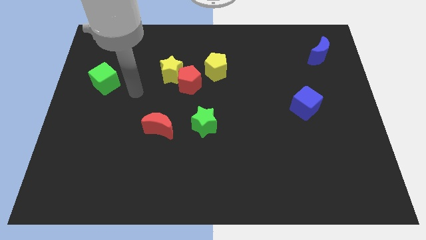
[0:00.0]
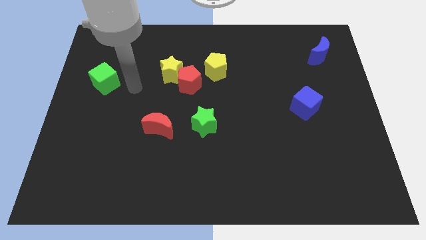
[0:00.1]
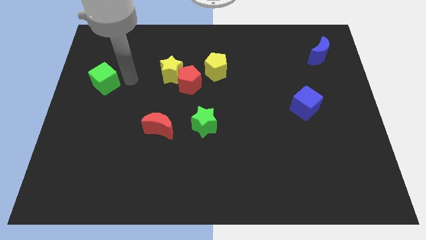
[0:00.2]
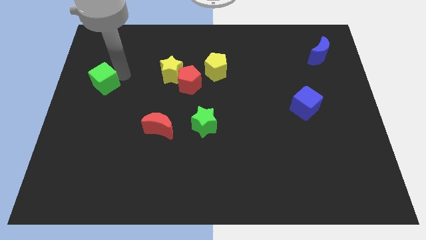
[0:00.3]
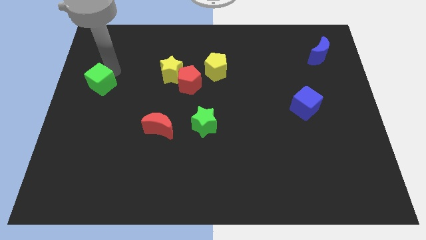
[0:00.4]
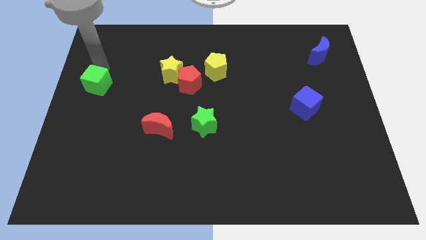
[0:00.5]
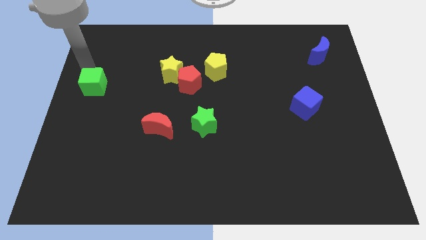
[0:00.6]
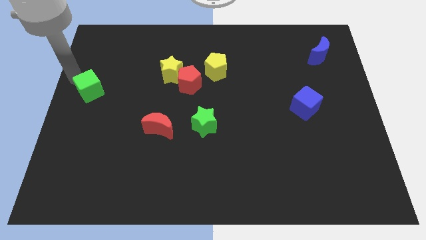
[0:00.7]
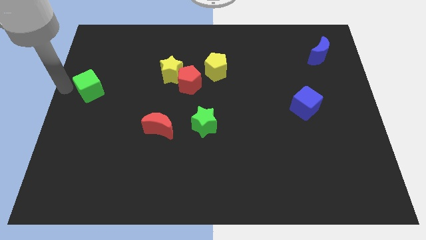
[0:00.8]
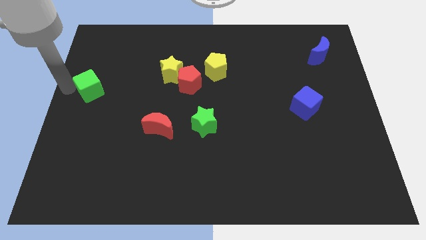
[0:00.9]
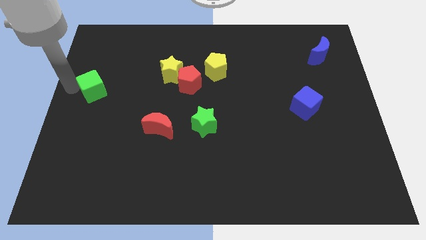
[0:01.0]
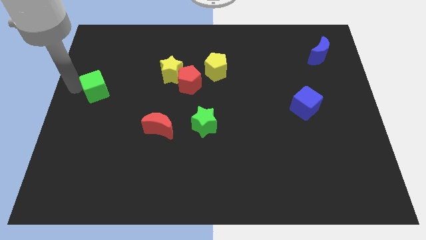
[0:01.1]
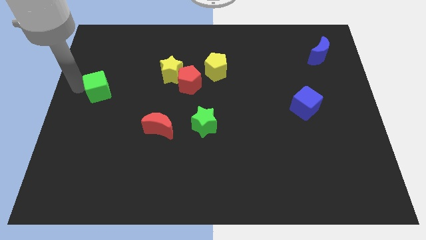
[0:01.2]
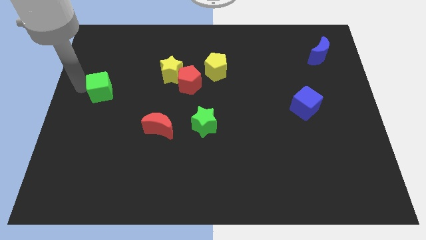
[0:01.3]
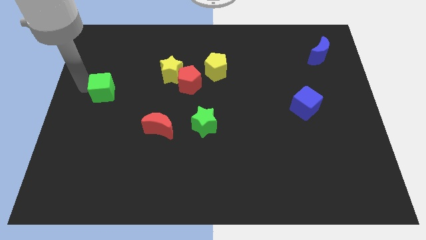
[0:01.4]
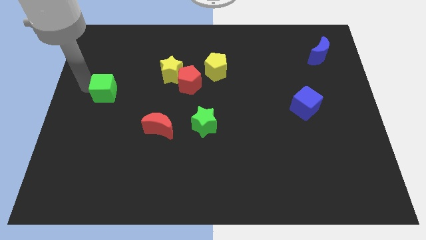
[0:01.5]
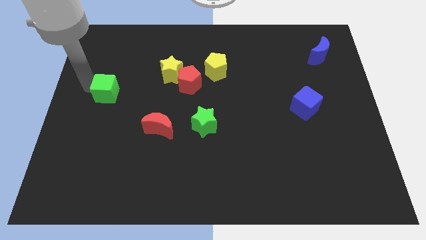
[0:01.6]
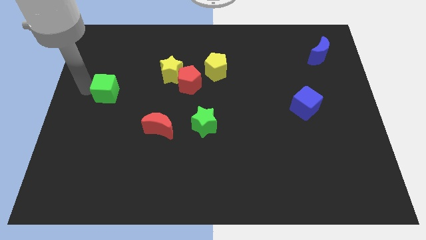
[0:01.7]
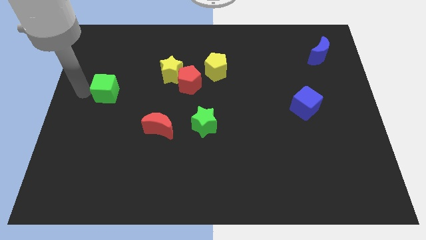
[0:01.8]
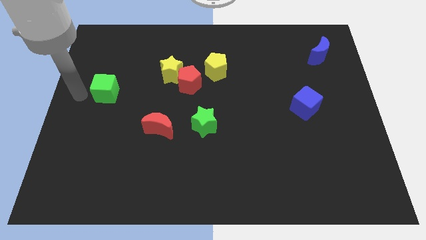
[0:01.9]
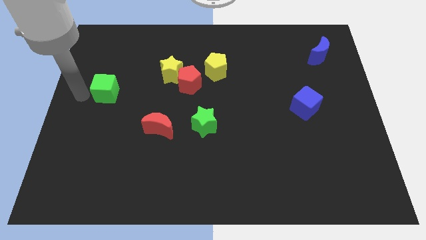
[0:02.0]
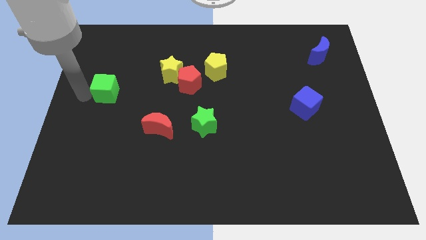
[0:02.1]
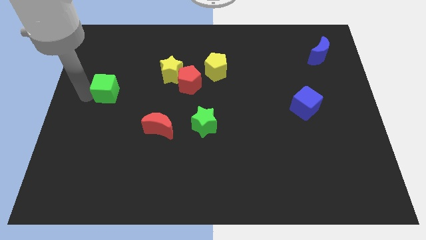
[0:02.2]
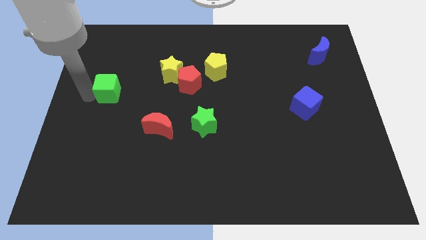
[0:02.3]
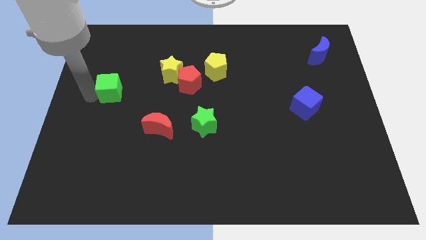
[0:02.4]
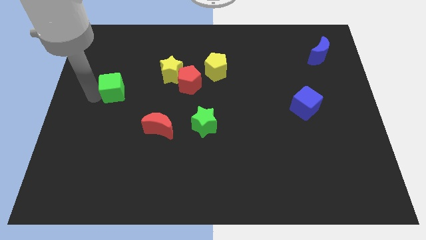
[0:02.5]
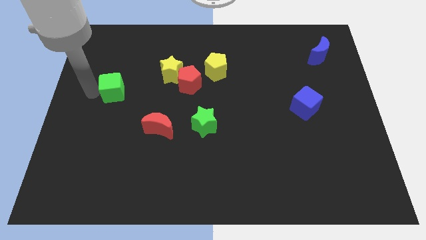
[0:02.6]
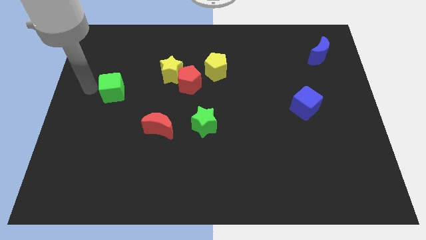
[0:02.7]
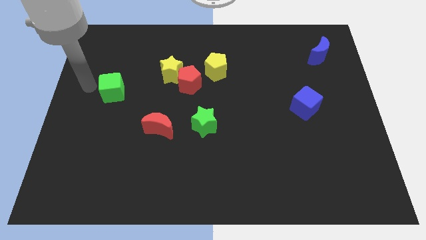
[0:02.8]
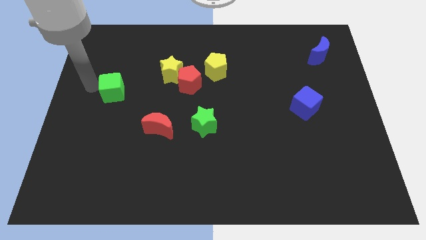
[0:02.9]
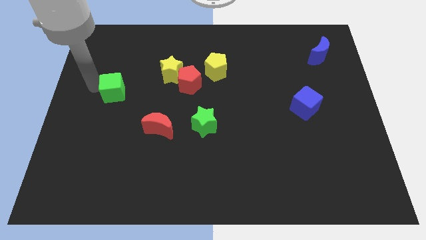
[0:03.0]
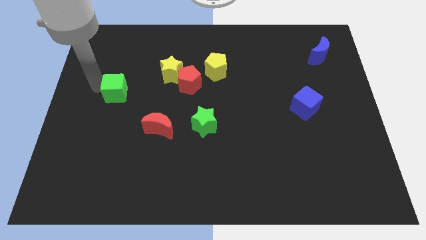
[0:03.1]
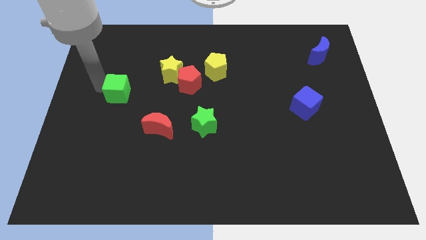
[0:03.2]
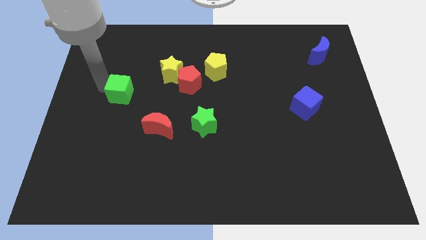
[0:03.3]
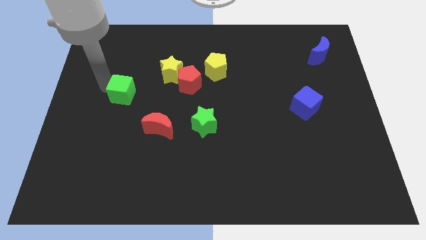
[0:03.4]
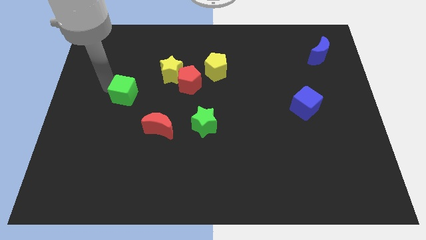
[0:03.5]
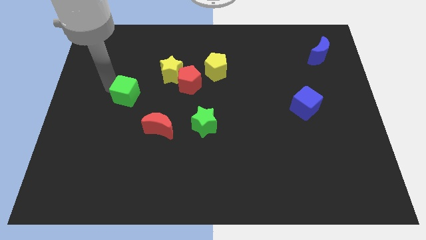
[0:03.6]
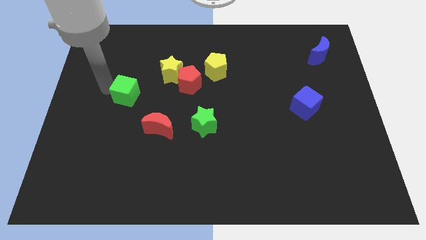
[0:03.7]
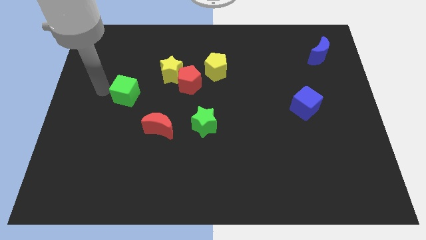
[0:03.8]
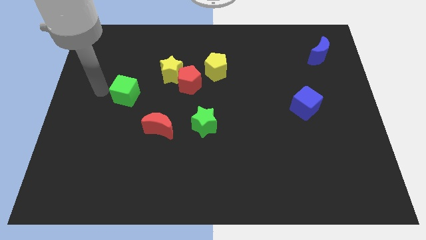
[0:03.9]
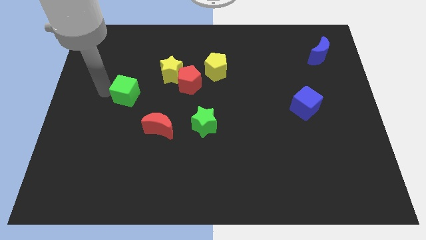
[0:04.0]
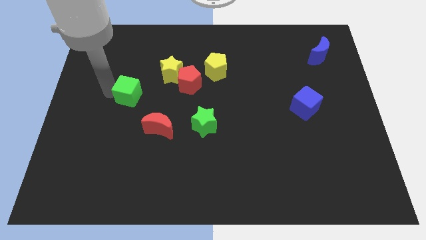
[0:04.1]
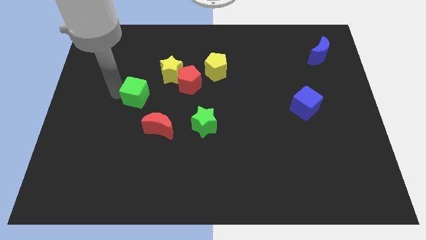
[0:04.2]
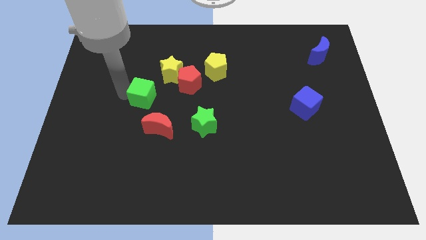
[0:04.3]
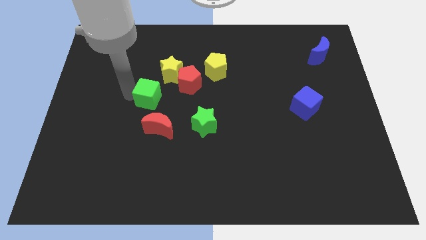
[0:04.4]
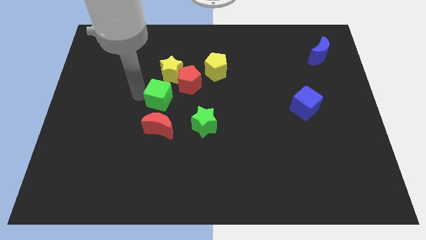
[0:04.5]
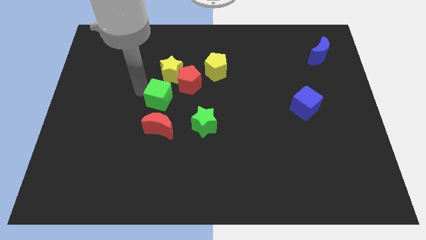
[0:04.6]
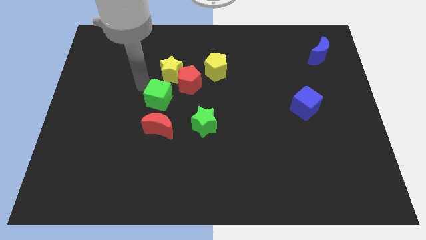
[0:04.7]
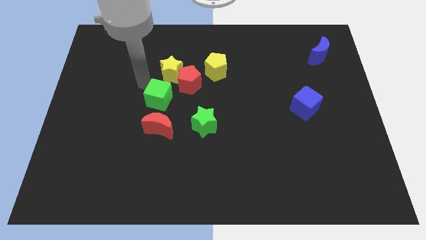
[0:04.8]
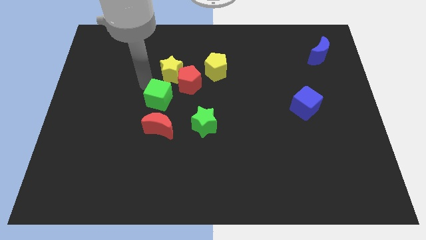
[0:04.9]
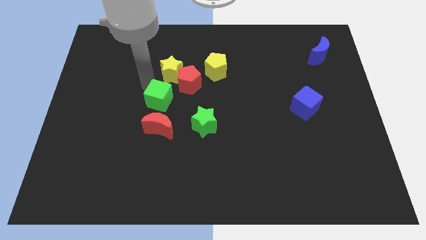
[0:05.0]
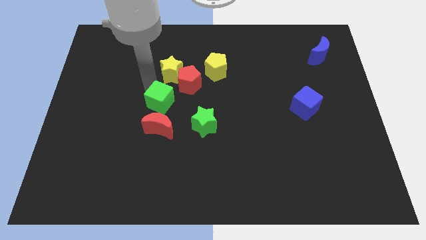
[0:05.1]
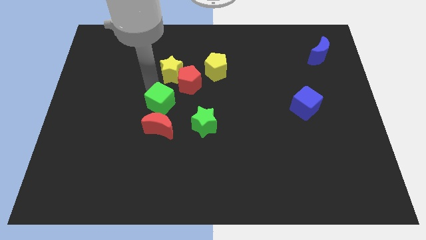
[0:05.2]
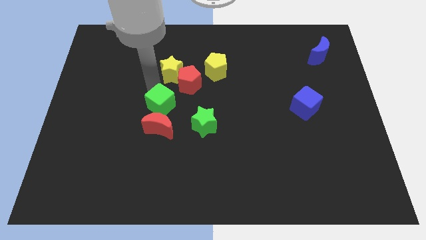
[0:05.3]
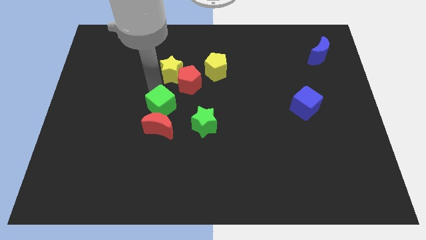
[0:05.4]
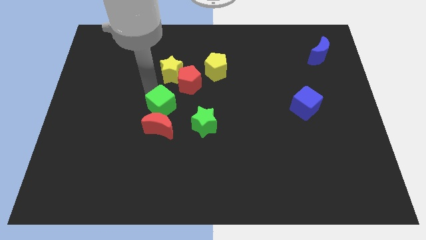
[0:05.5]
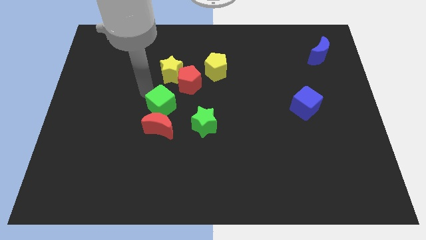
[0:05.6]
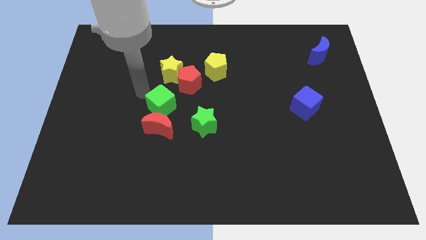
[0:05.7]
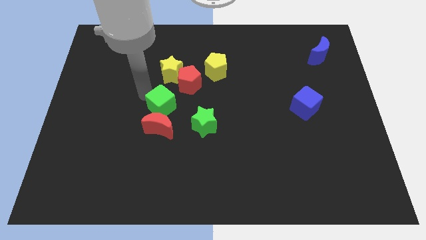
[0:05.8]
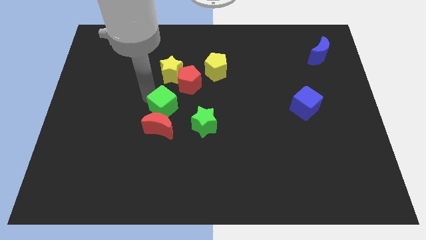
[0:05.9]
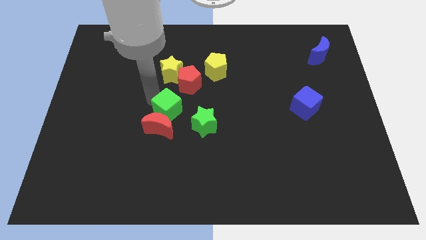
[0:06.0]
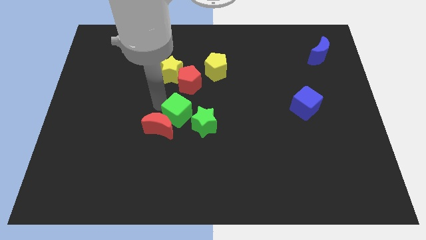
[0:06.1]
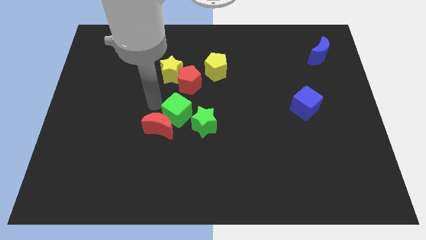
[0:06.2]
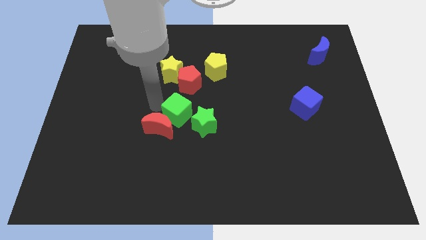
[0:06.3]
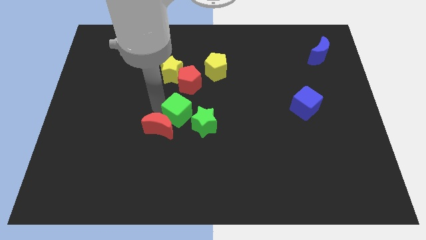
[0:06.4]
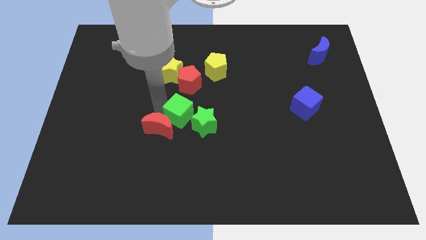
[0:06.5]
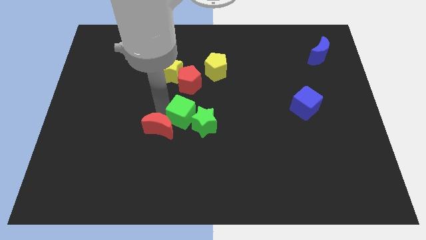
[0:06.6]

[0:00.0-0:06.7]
move the green cube next to the green star
